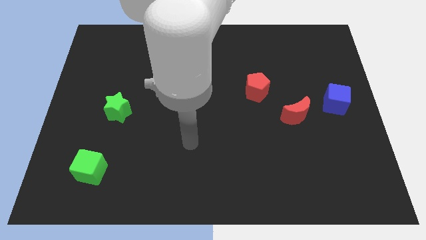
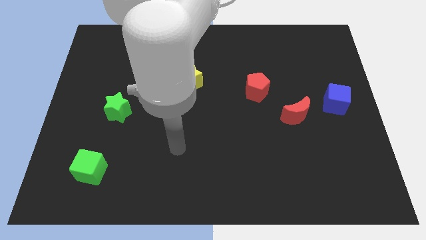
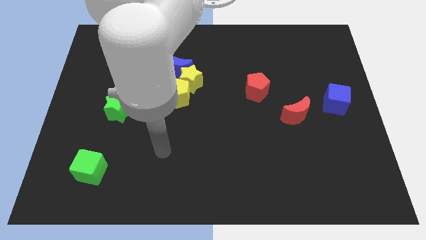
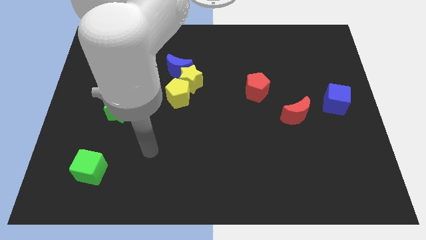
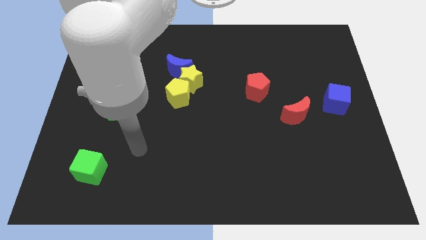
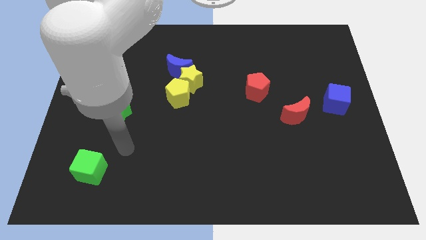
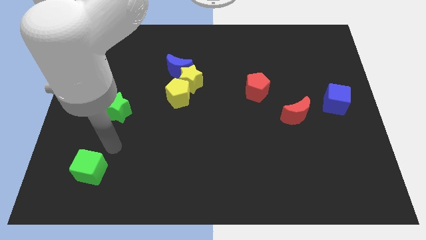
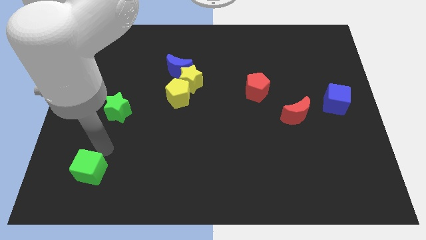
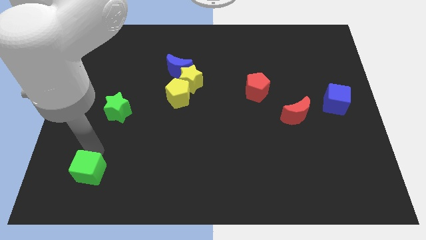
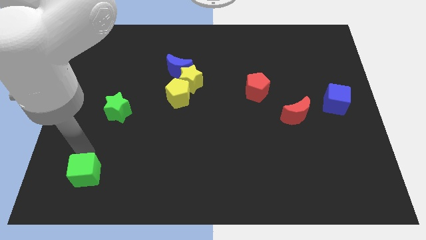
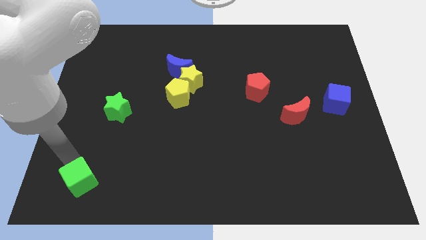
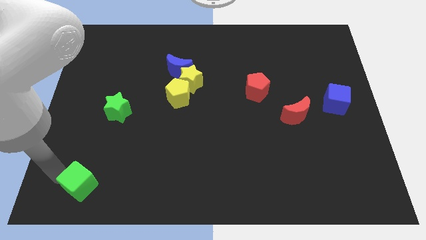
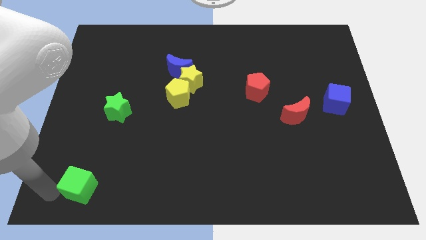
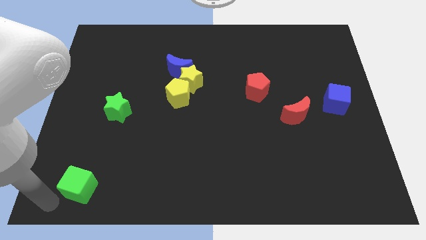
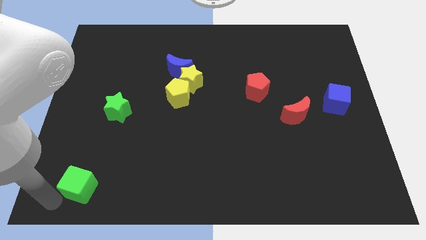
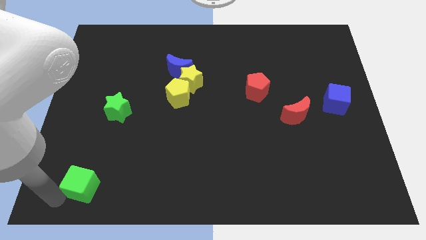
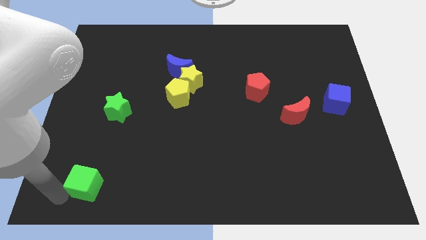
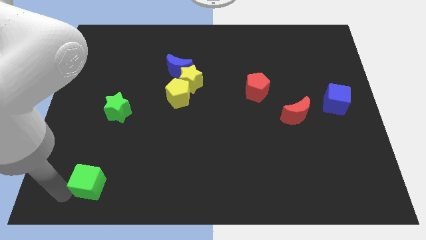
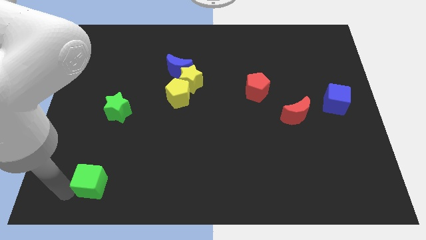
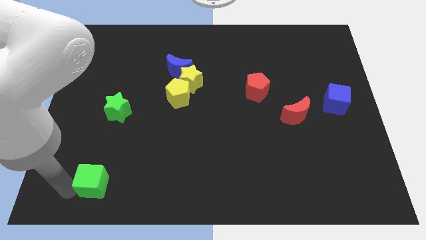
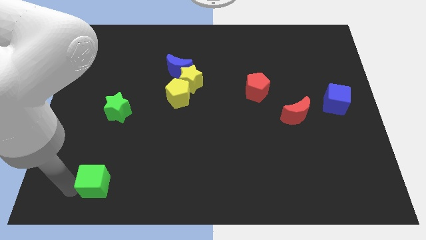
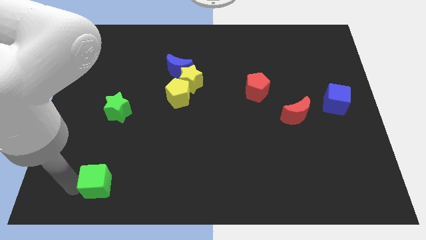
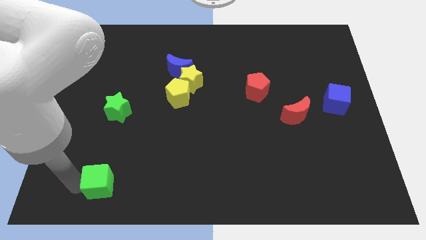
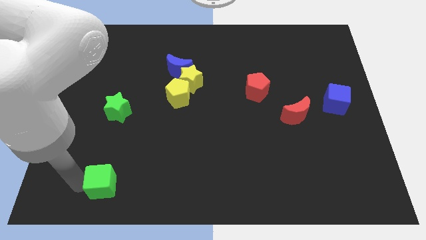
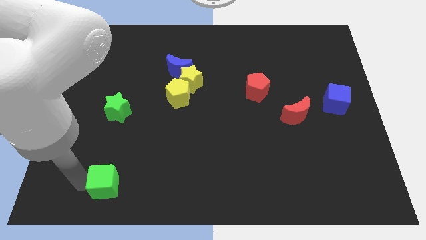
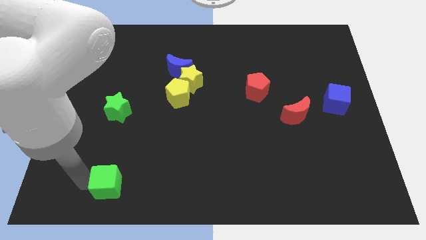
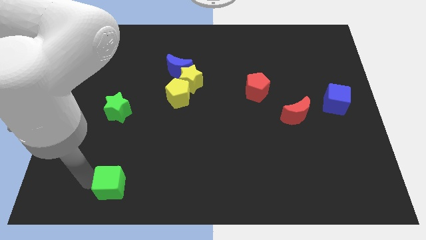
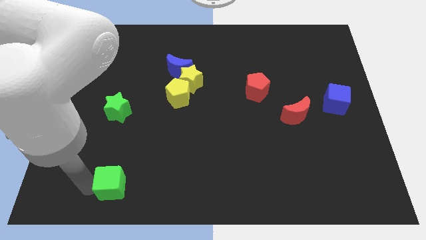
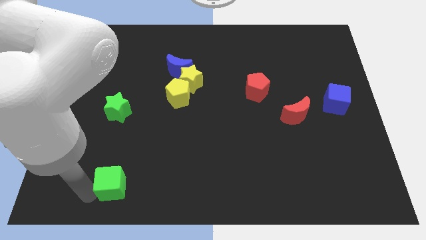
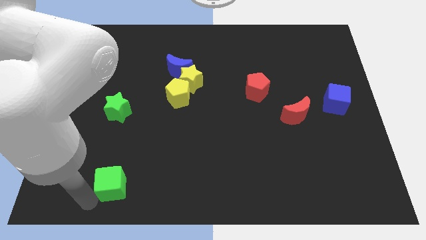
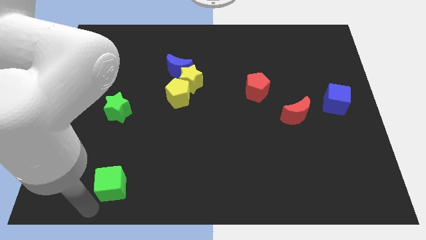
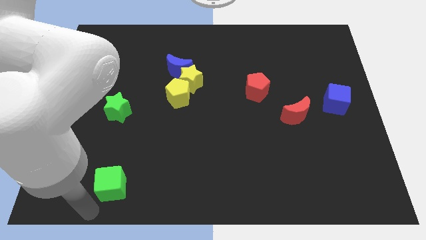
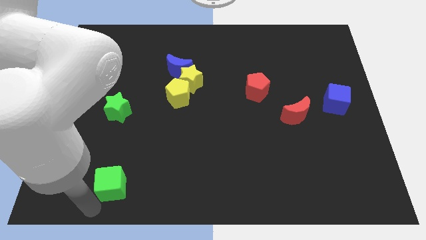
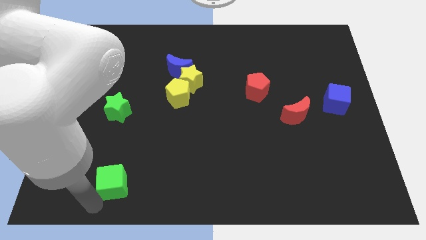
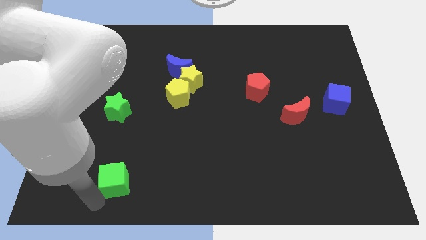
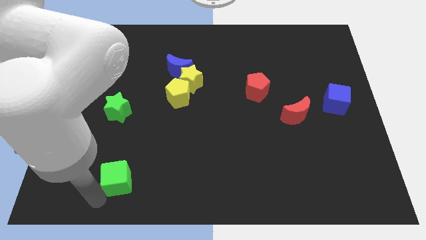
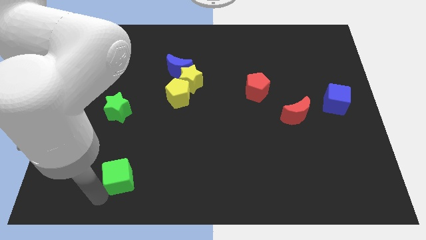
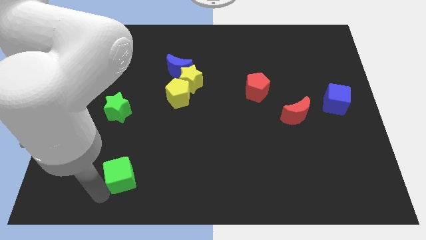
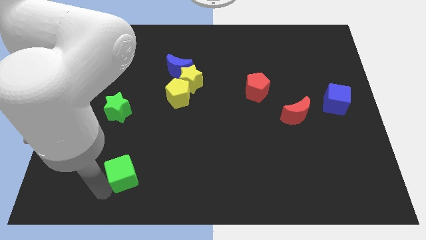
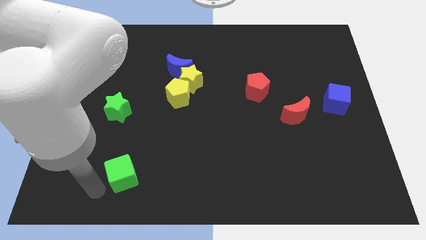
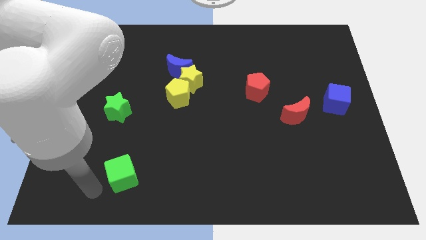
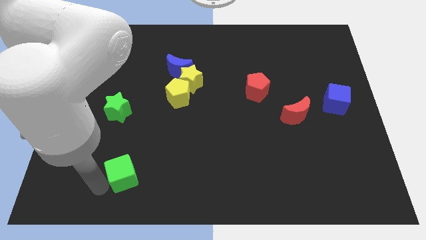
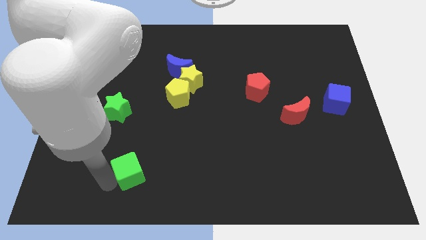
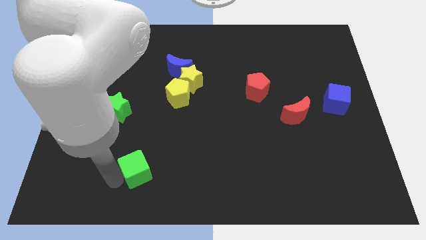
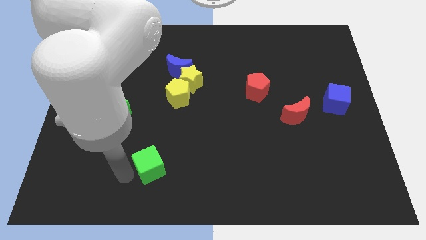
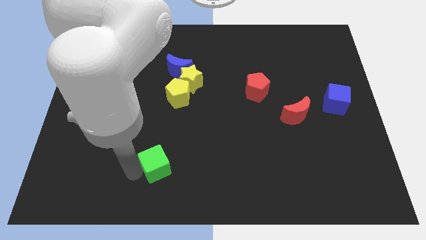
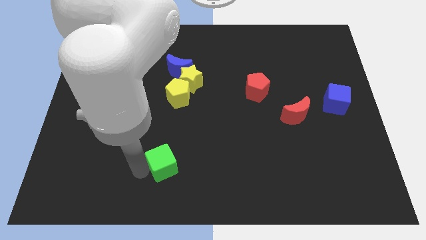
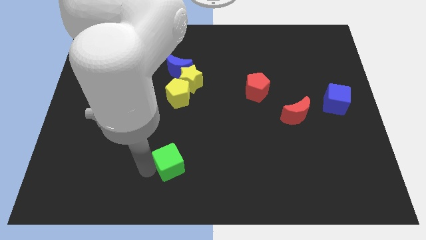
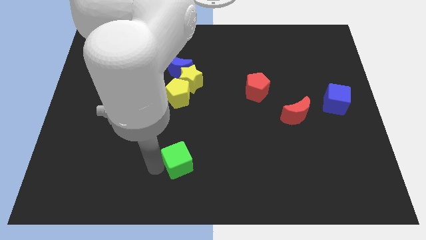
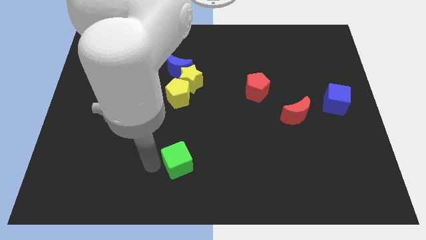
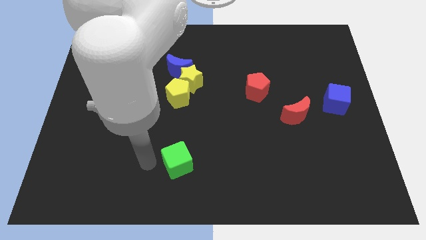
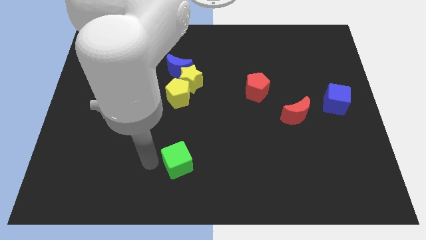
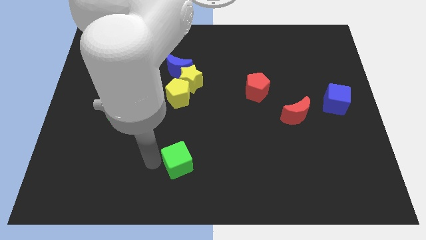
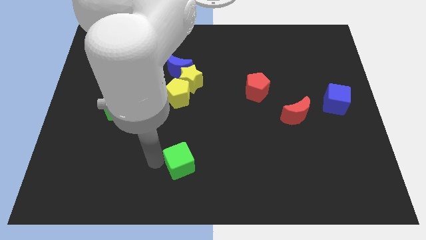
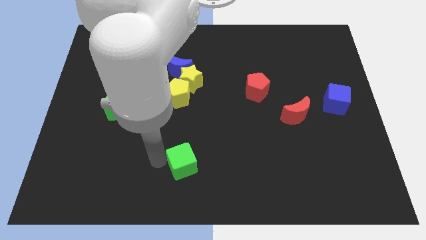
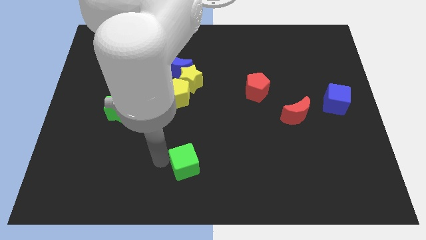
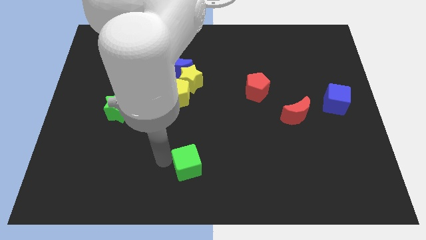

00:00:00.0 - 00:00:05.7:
slide the green cube right

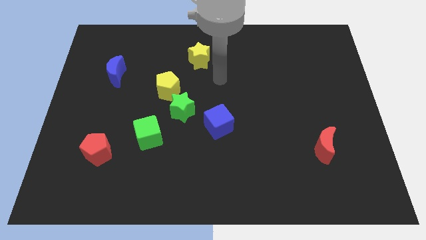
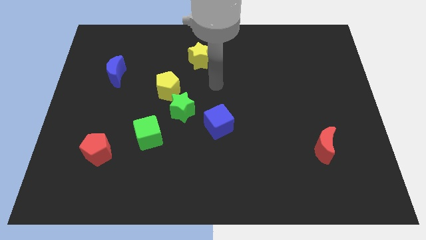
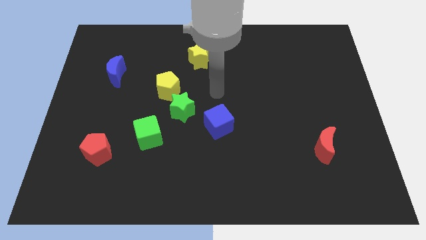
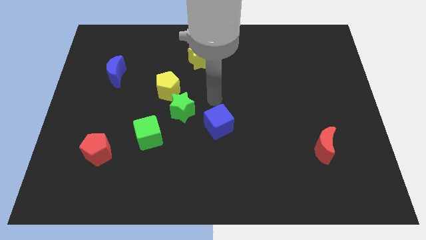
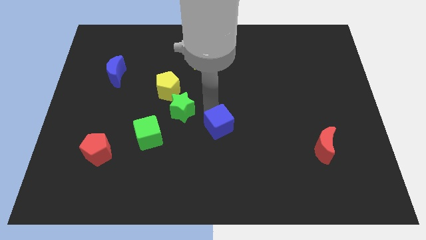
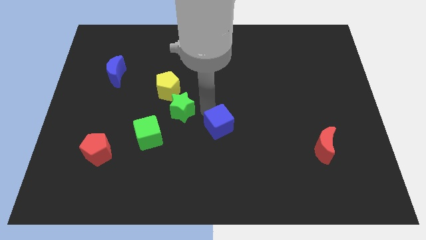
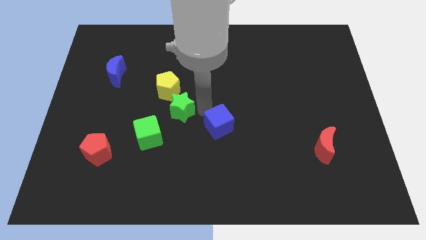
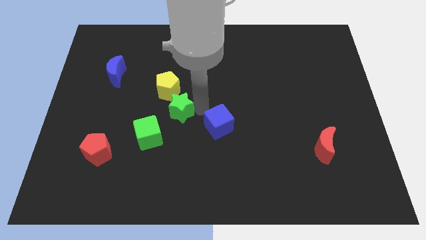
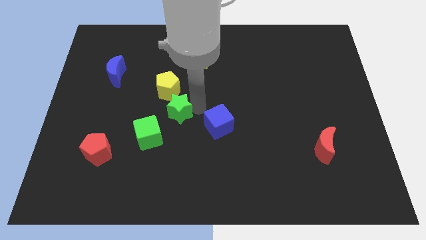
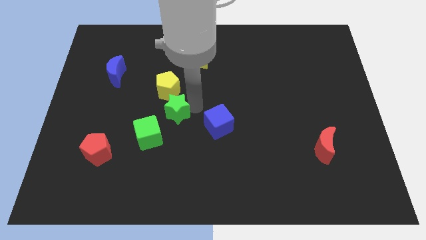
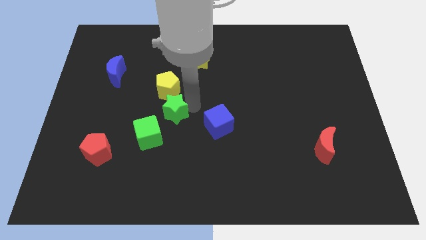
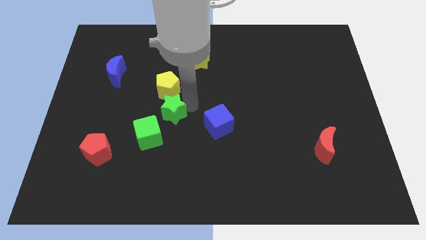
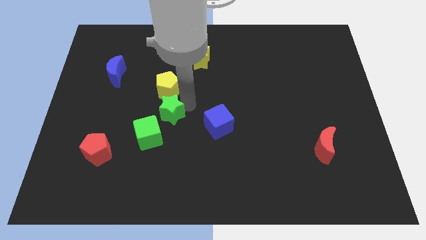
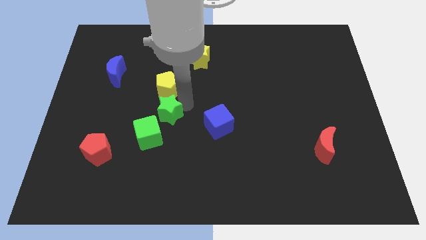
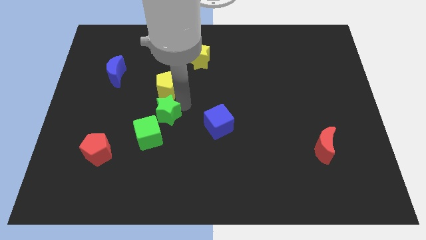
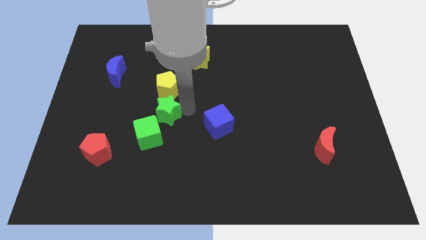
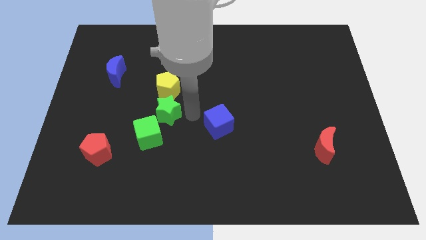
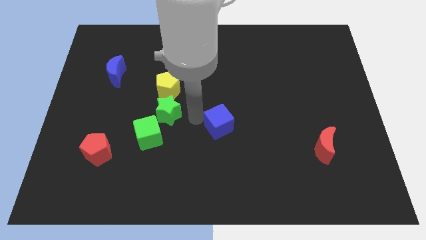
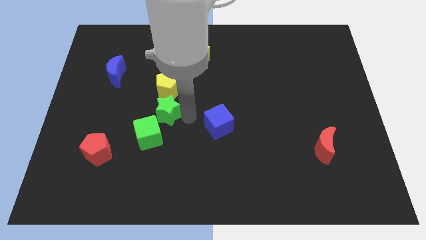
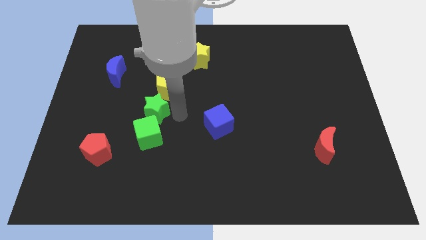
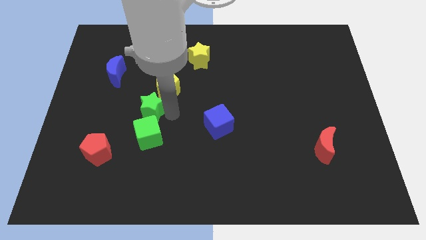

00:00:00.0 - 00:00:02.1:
slightly move the green star to the left

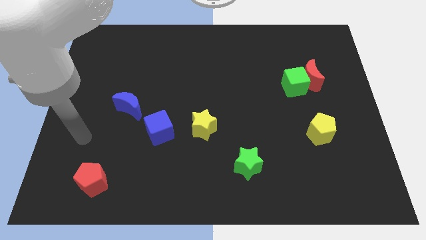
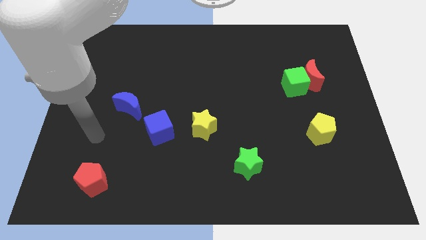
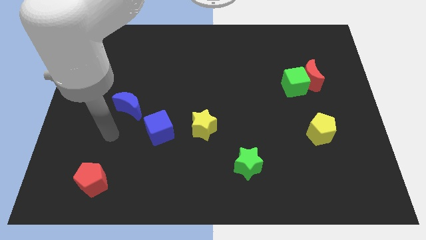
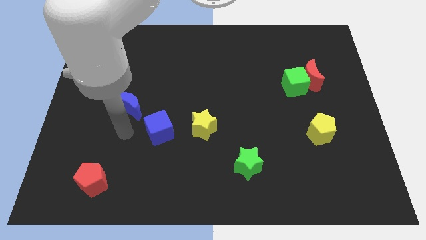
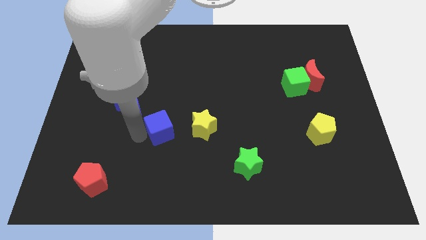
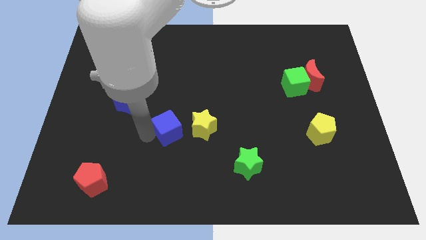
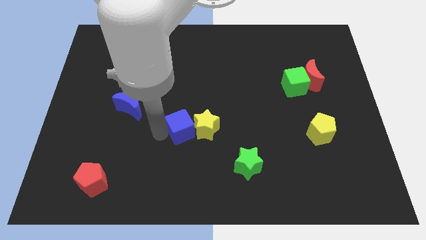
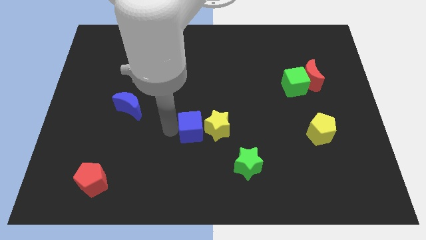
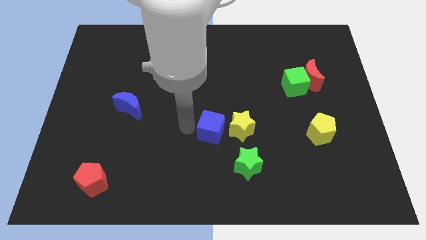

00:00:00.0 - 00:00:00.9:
slightly move the yellow star right

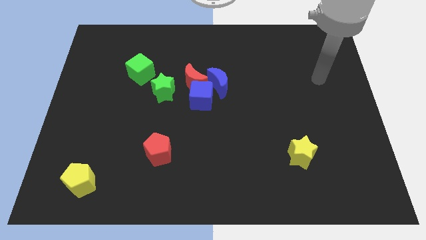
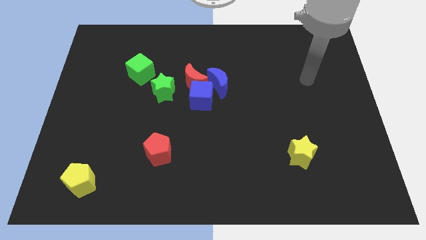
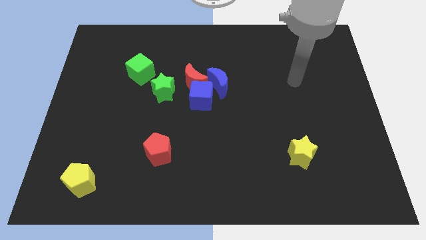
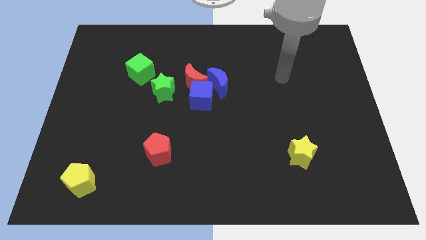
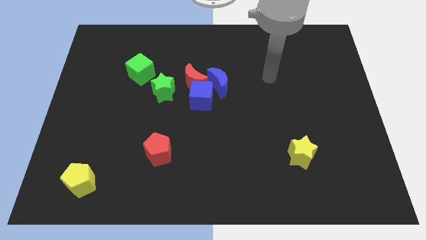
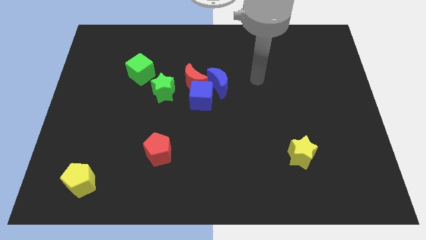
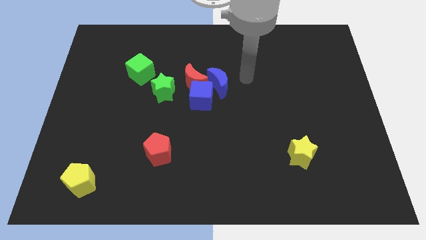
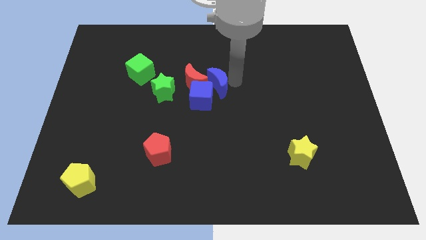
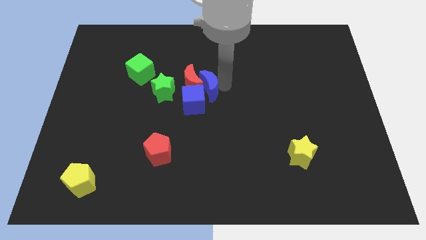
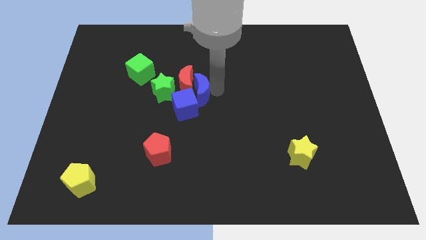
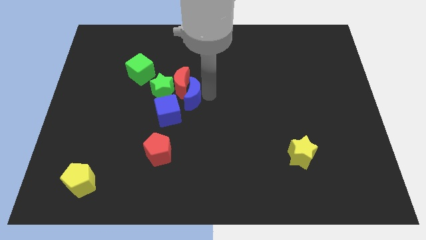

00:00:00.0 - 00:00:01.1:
slide the blue cube a little down and left
